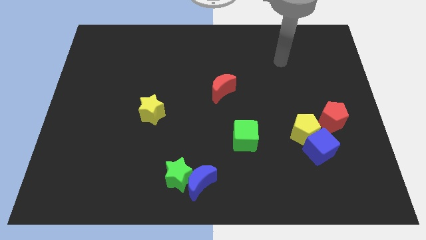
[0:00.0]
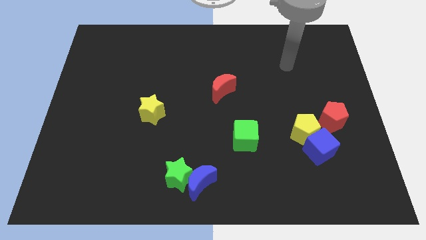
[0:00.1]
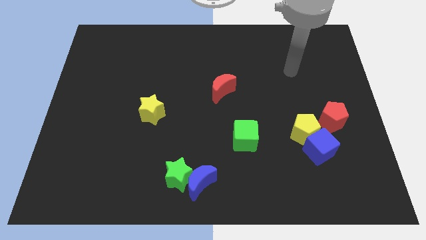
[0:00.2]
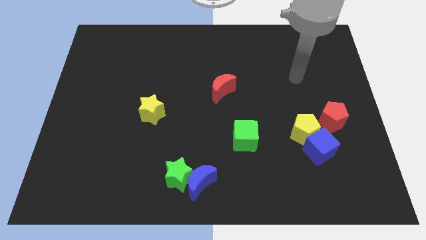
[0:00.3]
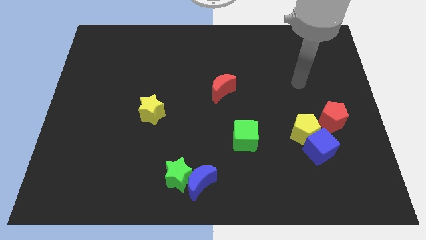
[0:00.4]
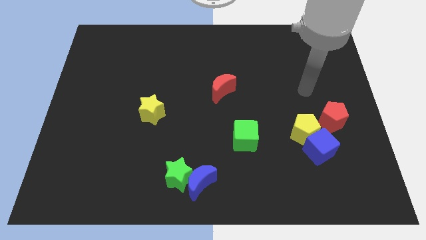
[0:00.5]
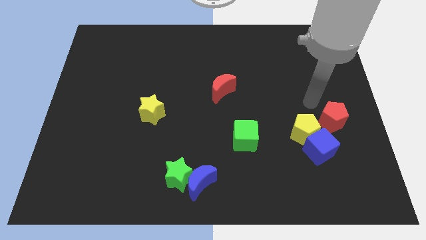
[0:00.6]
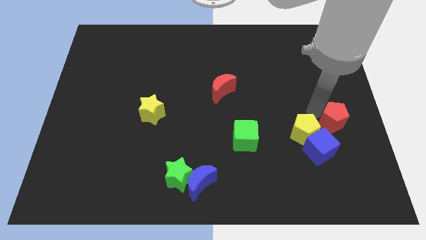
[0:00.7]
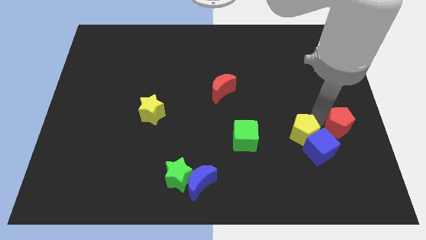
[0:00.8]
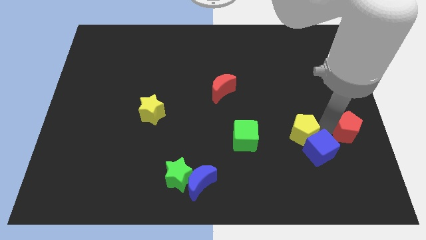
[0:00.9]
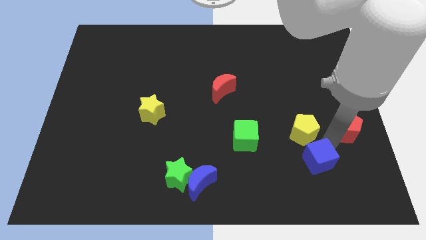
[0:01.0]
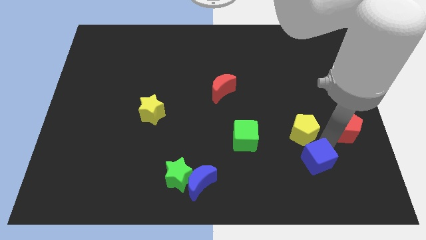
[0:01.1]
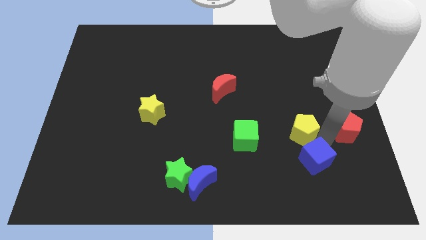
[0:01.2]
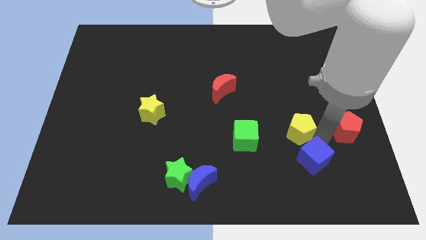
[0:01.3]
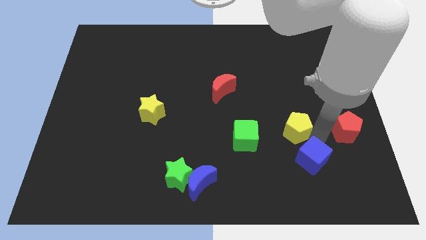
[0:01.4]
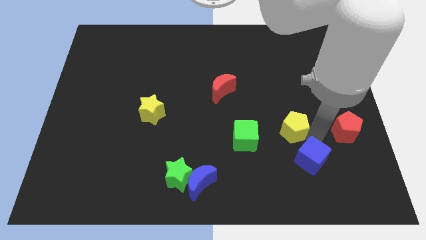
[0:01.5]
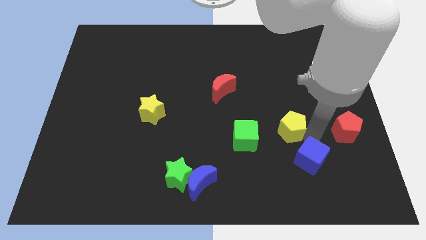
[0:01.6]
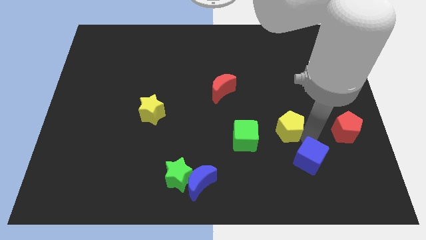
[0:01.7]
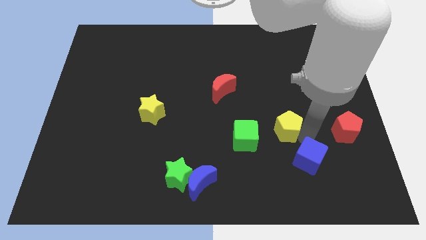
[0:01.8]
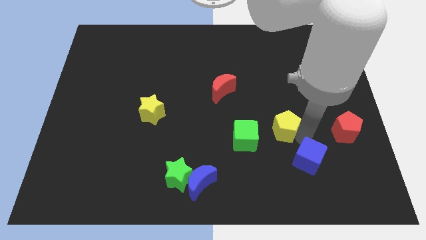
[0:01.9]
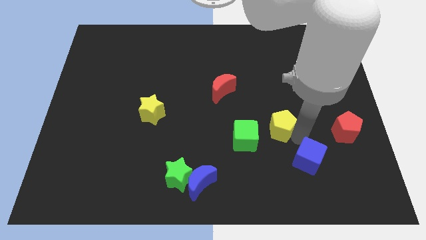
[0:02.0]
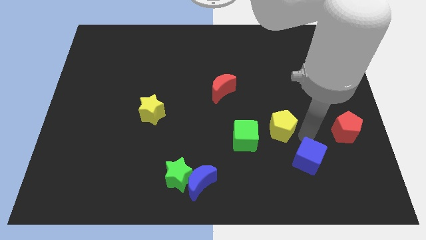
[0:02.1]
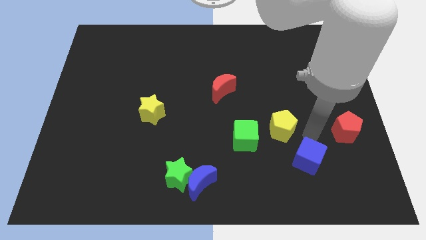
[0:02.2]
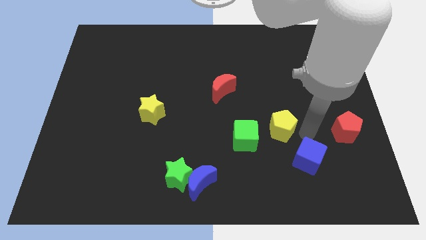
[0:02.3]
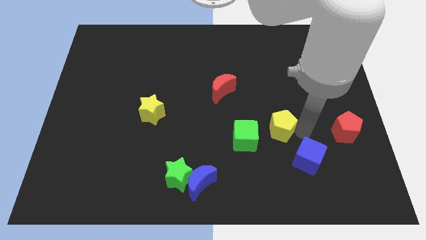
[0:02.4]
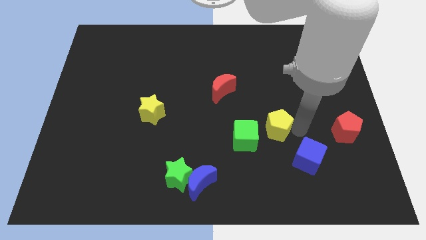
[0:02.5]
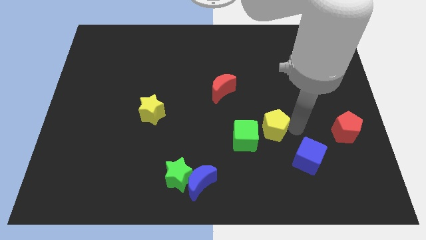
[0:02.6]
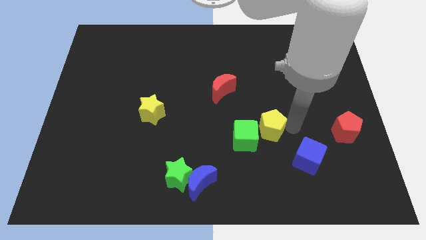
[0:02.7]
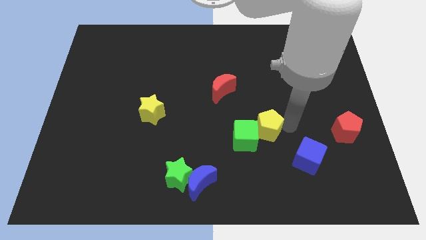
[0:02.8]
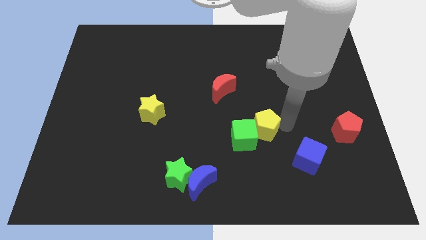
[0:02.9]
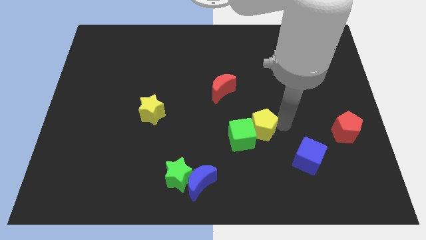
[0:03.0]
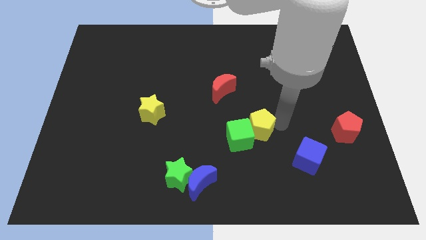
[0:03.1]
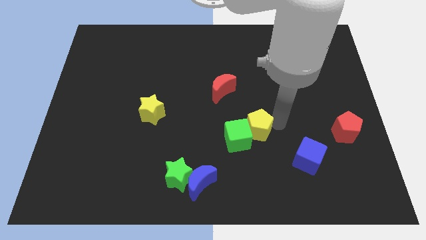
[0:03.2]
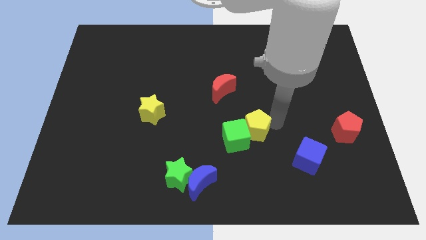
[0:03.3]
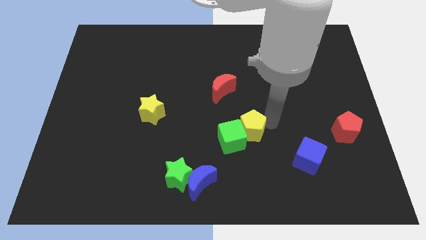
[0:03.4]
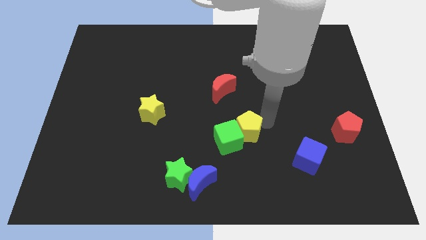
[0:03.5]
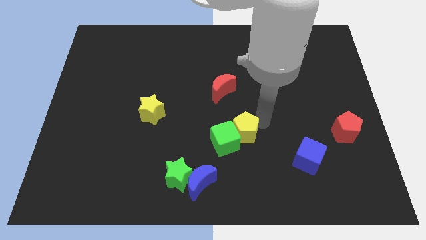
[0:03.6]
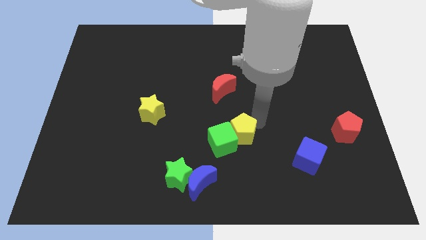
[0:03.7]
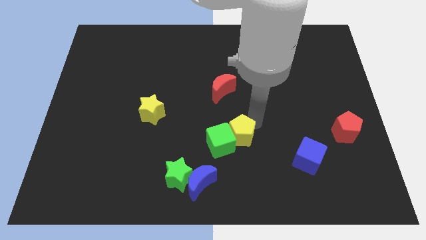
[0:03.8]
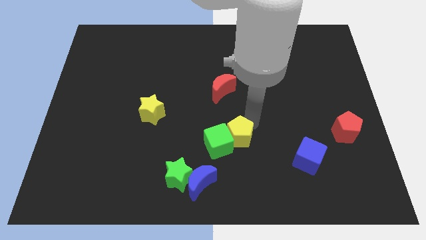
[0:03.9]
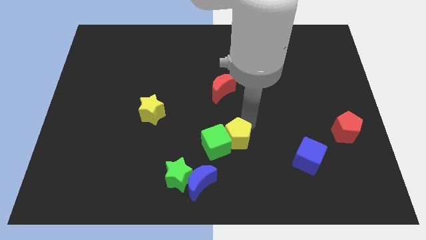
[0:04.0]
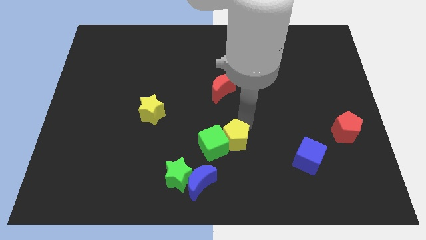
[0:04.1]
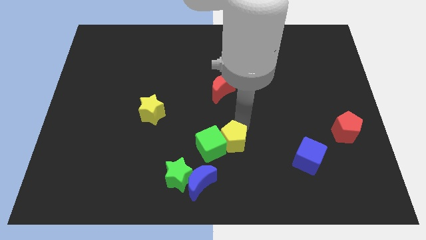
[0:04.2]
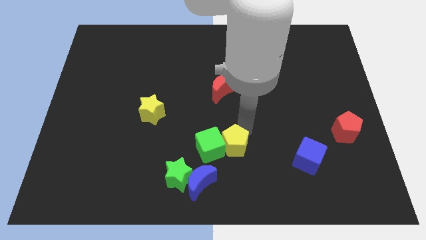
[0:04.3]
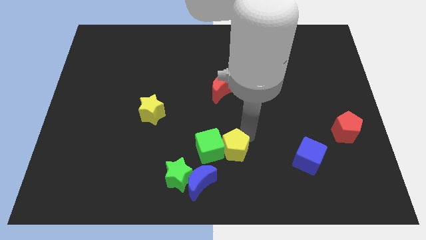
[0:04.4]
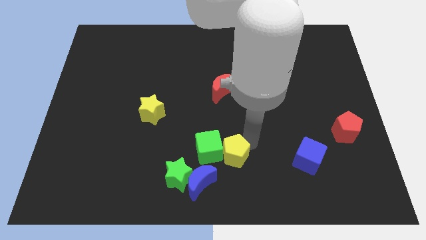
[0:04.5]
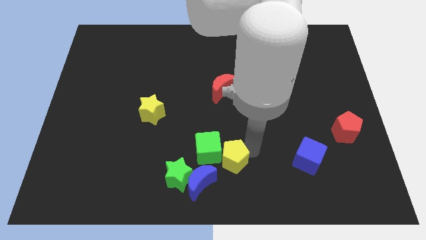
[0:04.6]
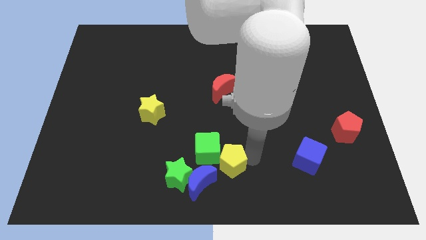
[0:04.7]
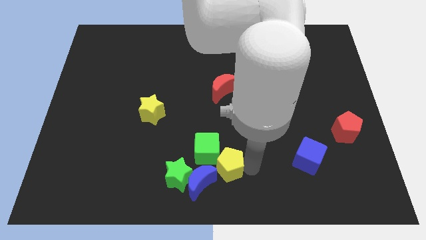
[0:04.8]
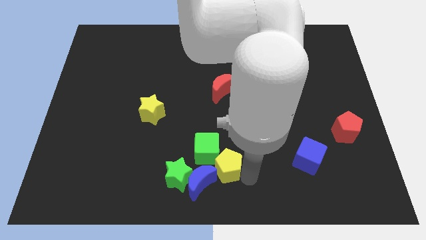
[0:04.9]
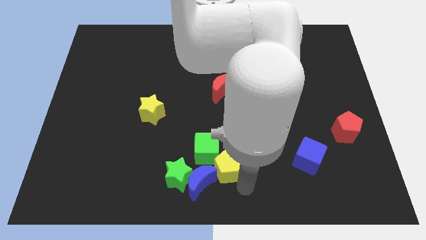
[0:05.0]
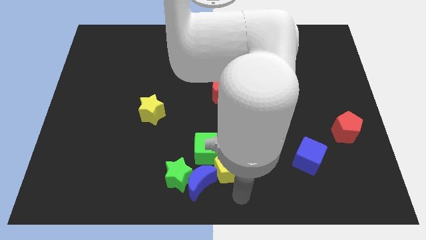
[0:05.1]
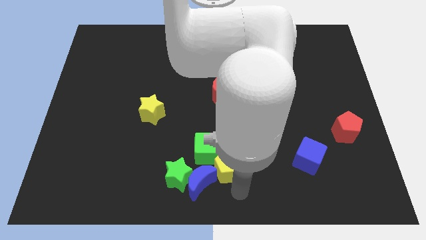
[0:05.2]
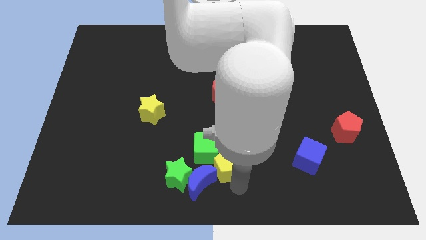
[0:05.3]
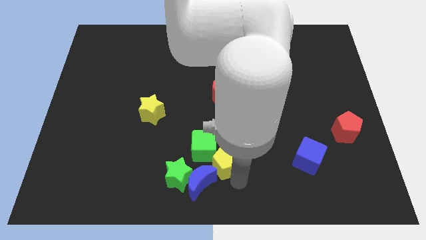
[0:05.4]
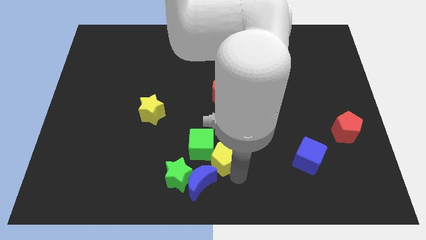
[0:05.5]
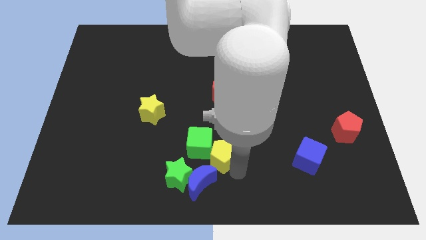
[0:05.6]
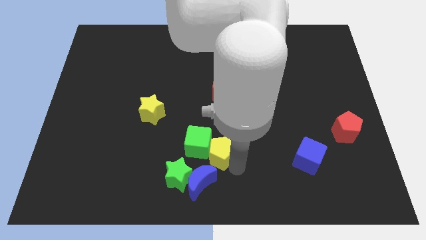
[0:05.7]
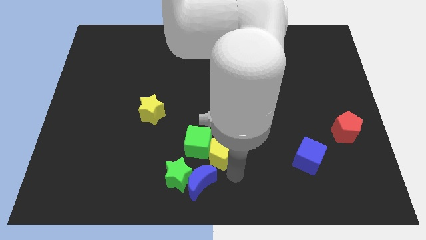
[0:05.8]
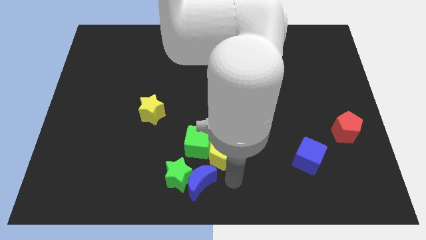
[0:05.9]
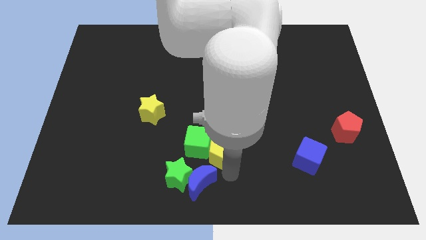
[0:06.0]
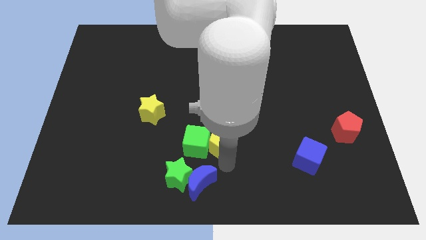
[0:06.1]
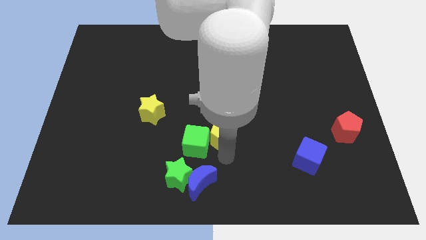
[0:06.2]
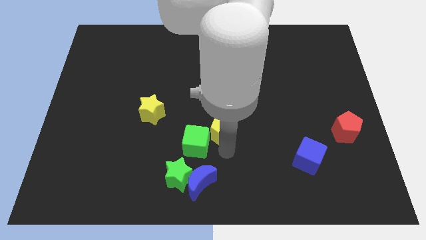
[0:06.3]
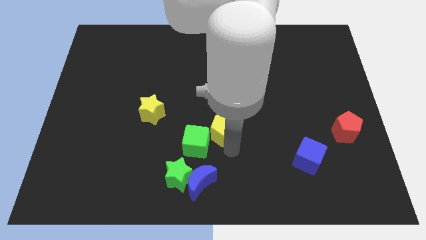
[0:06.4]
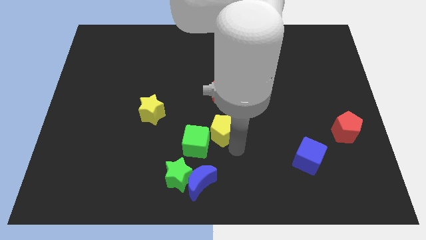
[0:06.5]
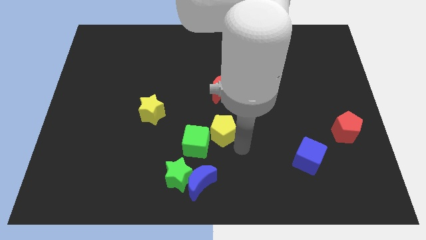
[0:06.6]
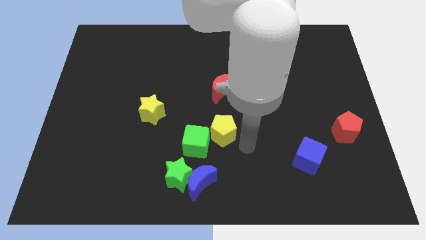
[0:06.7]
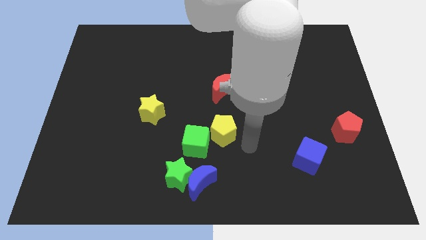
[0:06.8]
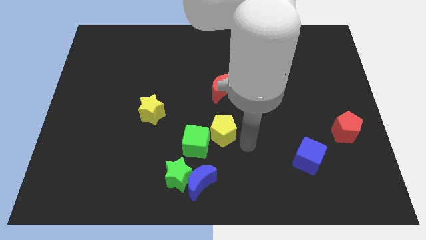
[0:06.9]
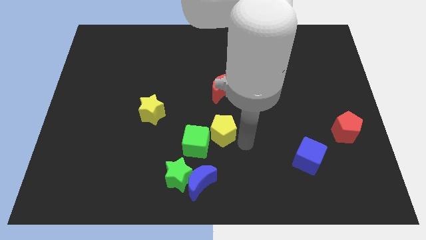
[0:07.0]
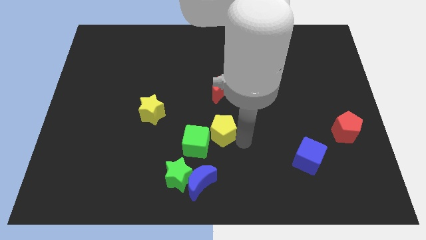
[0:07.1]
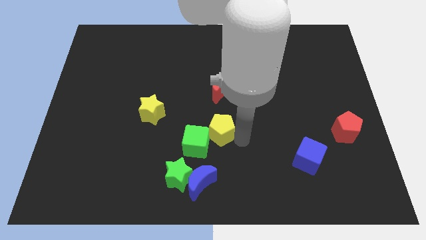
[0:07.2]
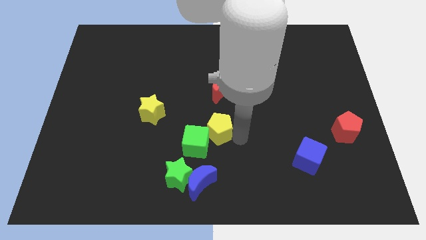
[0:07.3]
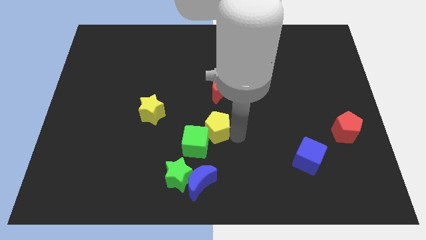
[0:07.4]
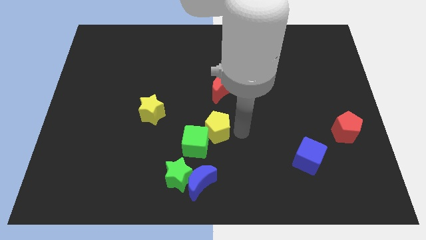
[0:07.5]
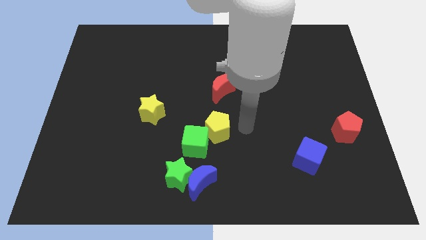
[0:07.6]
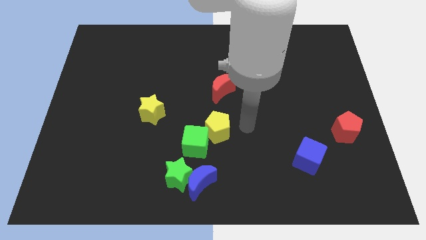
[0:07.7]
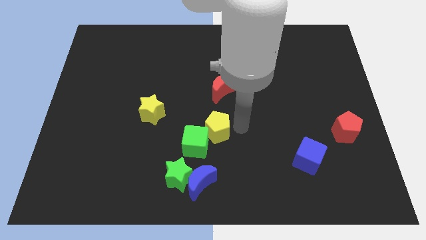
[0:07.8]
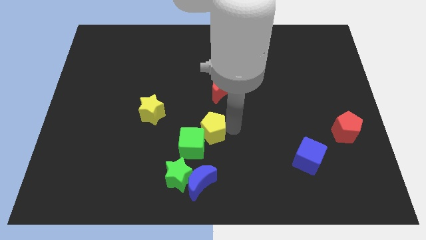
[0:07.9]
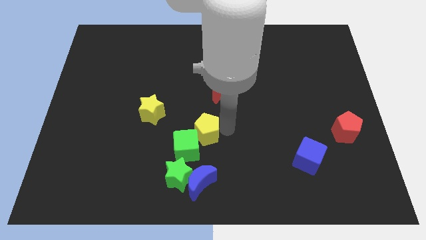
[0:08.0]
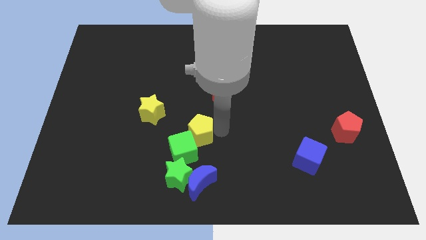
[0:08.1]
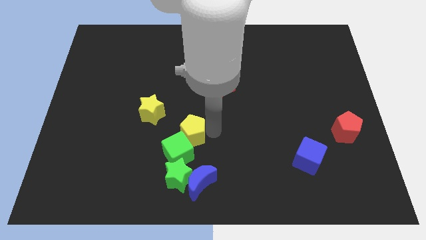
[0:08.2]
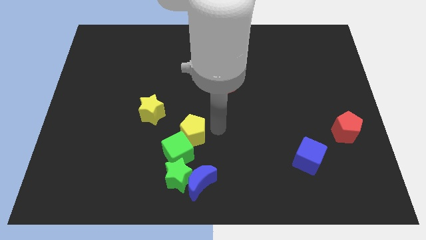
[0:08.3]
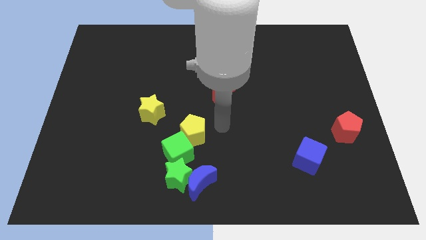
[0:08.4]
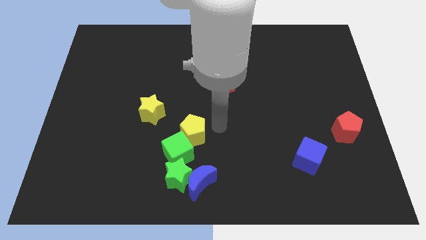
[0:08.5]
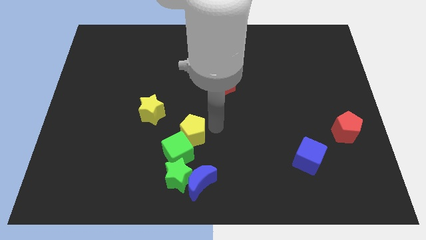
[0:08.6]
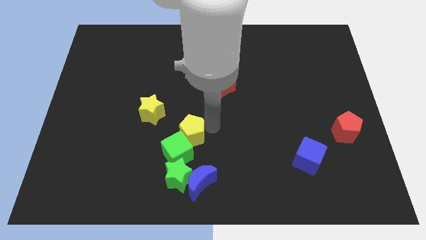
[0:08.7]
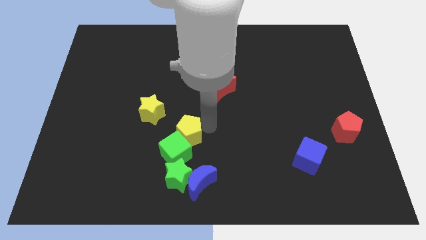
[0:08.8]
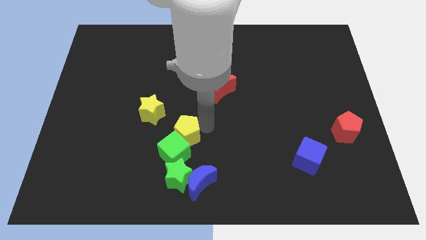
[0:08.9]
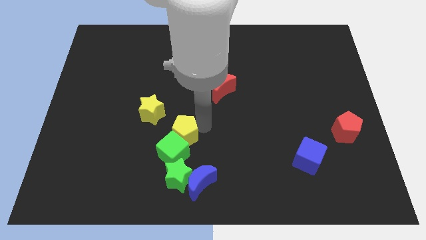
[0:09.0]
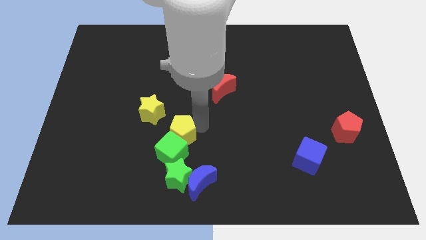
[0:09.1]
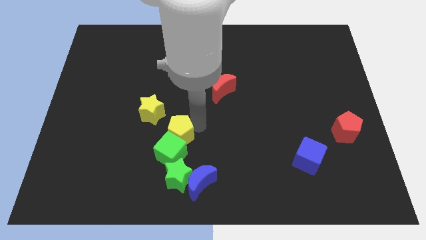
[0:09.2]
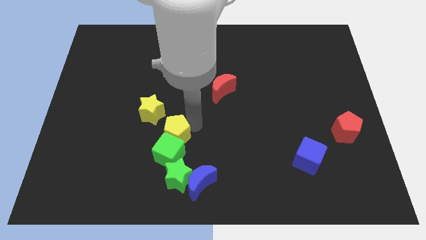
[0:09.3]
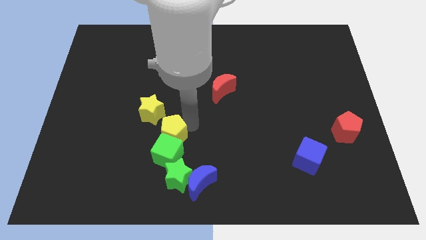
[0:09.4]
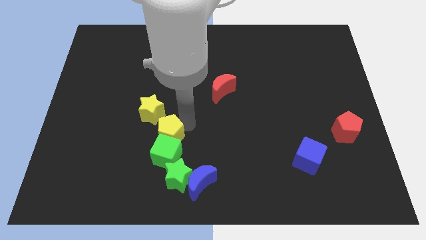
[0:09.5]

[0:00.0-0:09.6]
slide the yellow pentagon to the bottom side of the yellow star
